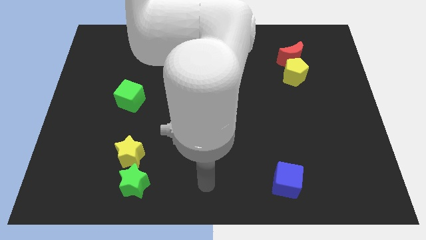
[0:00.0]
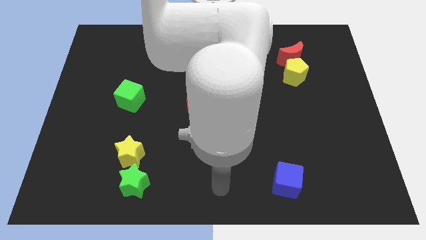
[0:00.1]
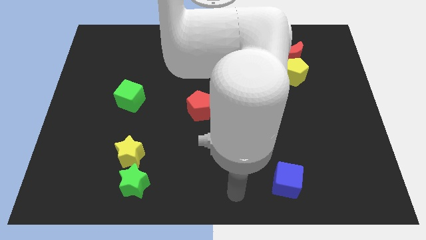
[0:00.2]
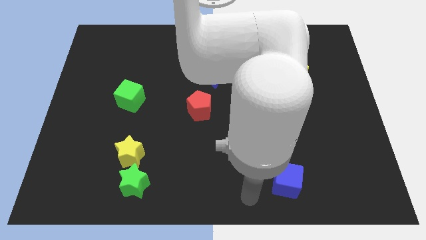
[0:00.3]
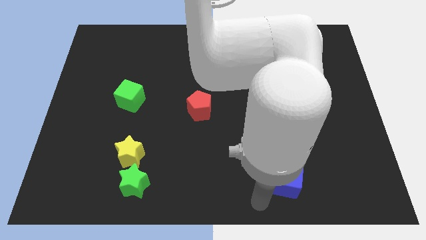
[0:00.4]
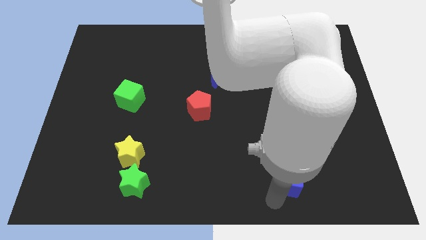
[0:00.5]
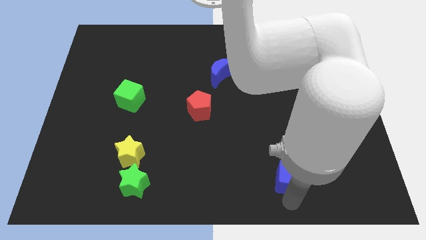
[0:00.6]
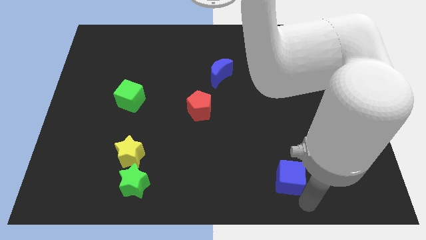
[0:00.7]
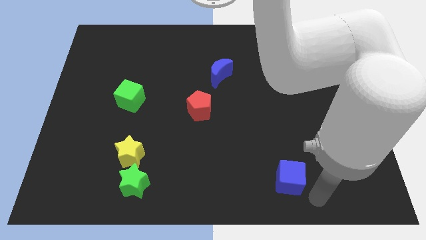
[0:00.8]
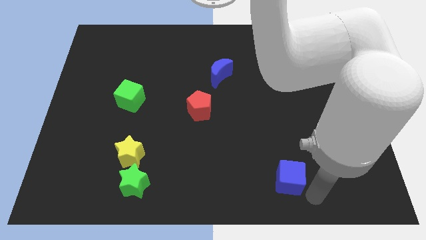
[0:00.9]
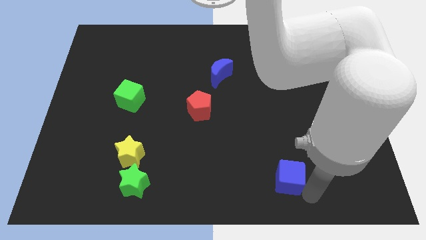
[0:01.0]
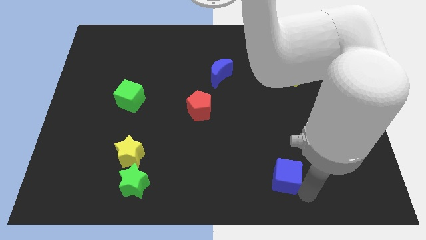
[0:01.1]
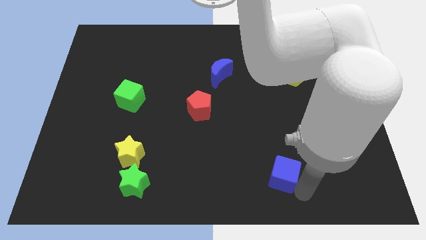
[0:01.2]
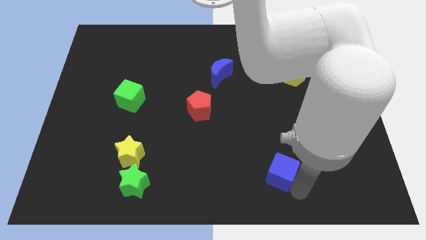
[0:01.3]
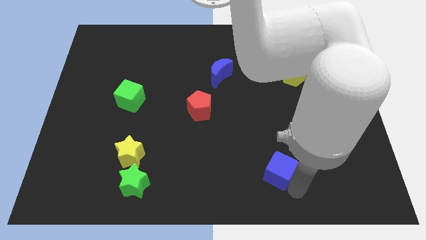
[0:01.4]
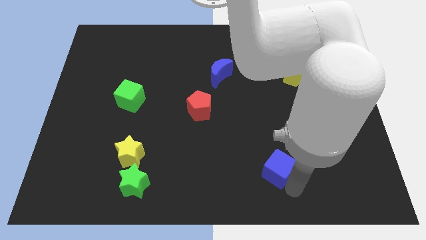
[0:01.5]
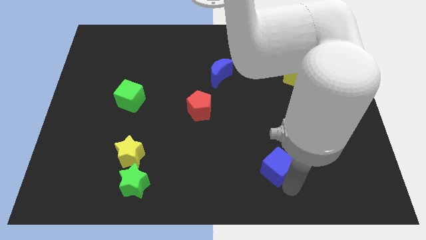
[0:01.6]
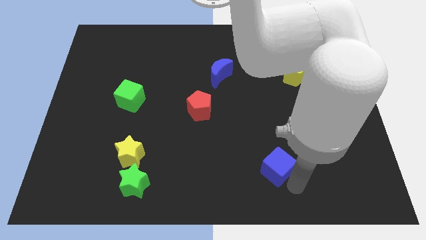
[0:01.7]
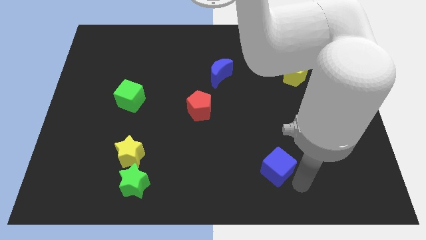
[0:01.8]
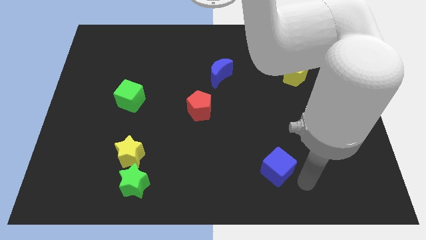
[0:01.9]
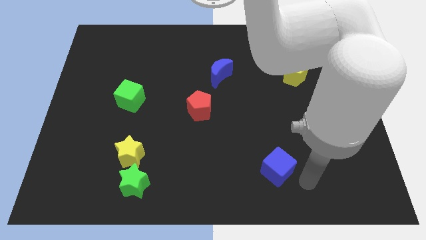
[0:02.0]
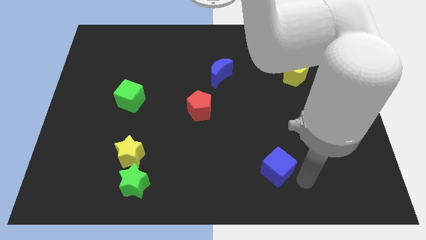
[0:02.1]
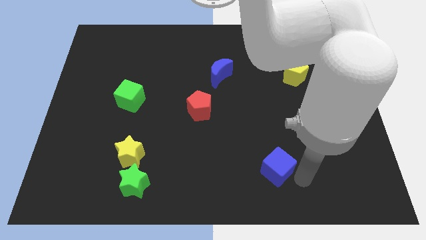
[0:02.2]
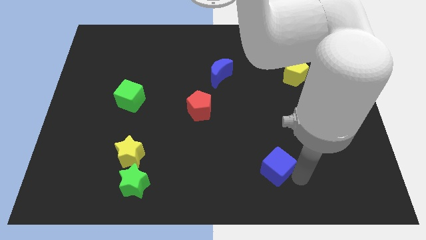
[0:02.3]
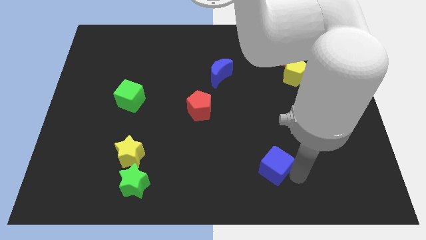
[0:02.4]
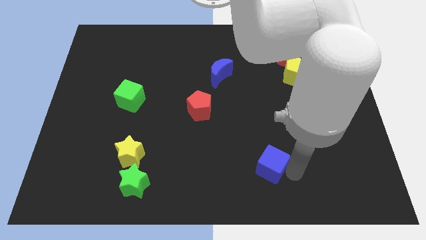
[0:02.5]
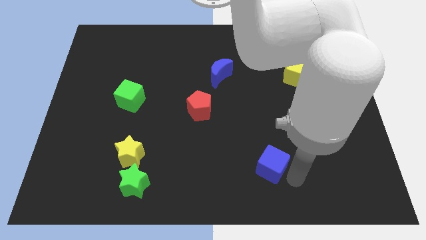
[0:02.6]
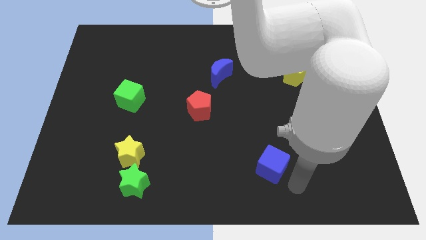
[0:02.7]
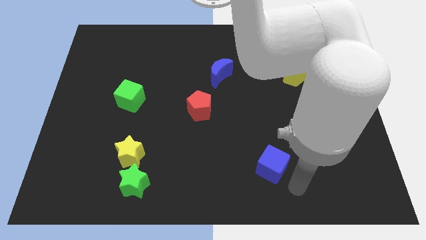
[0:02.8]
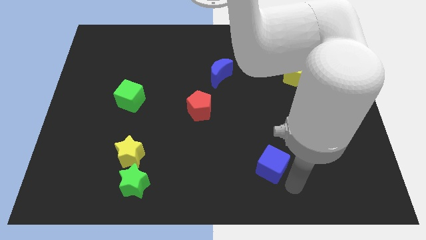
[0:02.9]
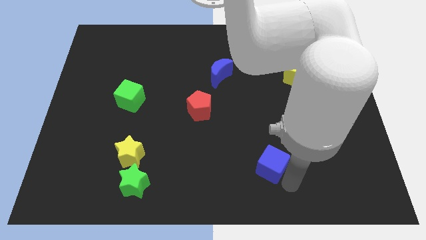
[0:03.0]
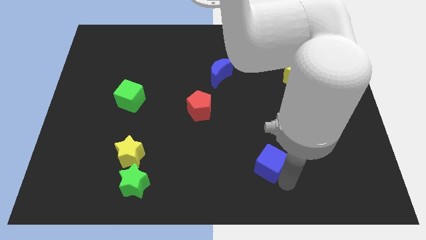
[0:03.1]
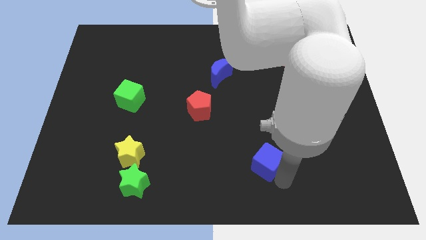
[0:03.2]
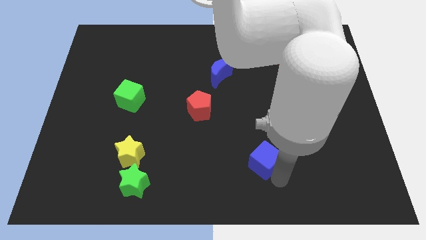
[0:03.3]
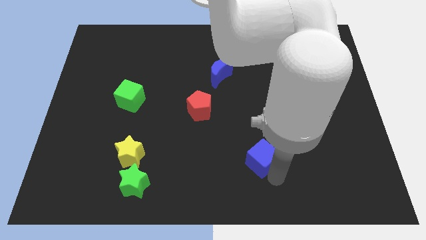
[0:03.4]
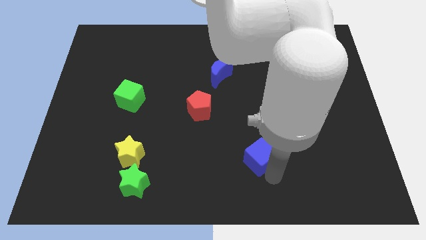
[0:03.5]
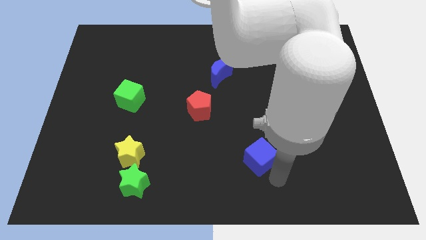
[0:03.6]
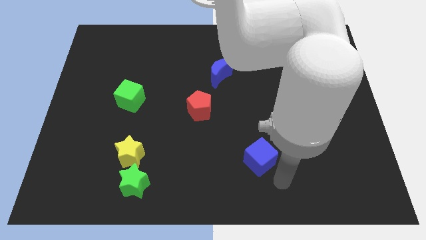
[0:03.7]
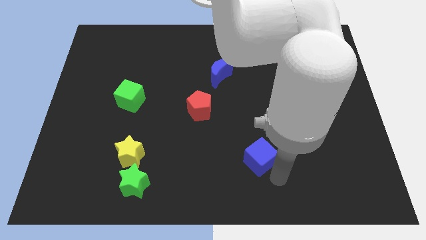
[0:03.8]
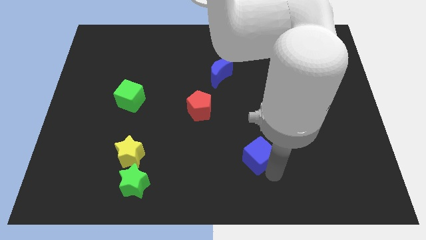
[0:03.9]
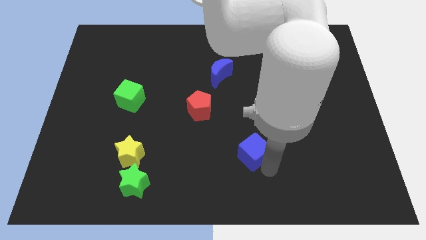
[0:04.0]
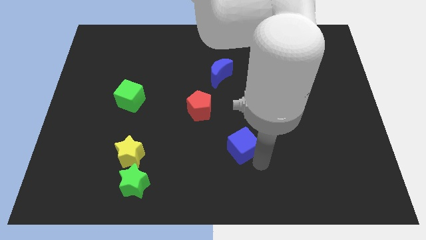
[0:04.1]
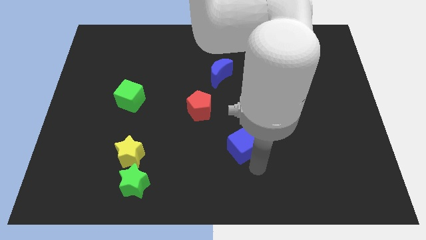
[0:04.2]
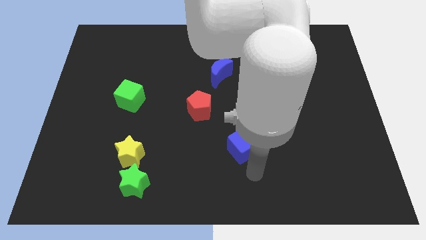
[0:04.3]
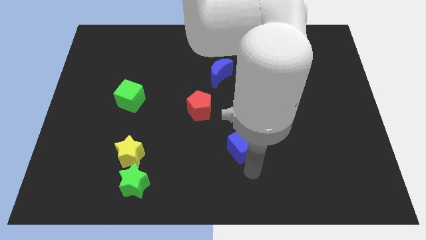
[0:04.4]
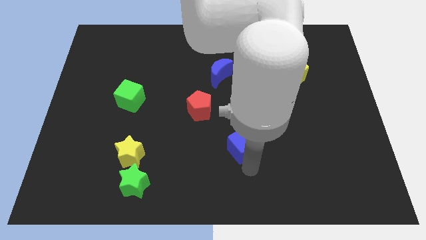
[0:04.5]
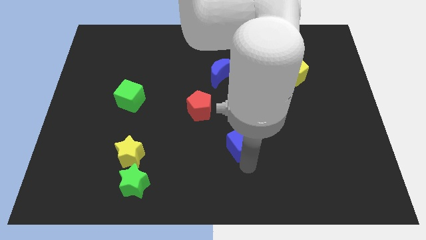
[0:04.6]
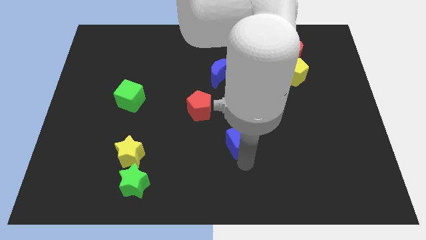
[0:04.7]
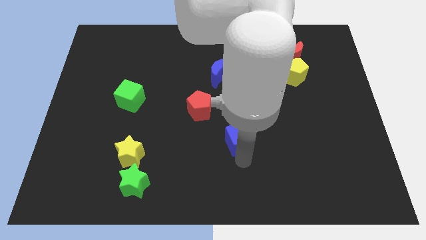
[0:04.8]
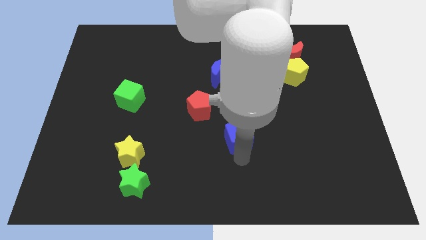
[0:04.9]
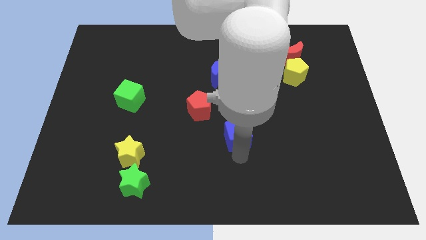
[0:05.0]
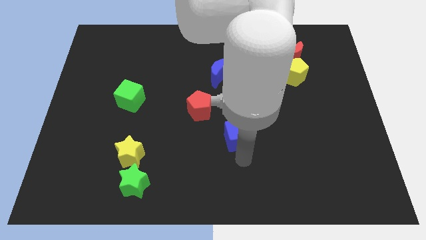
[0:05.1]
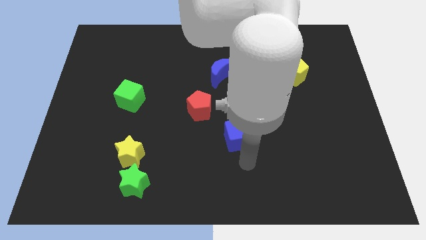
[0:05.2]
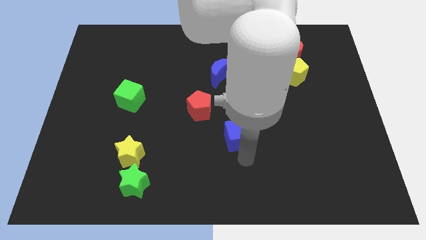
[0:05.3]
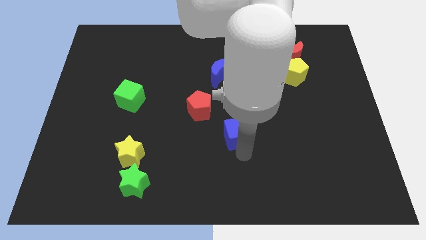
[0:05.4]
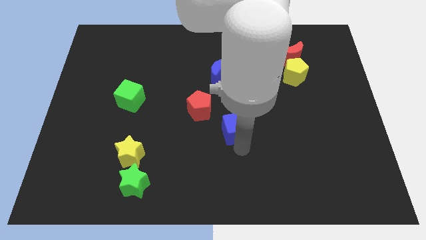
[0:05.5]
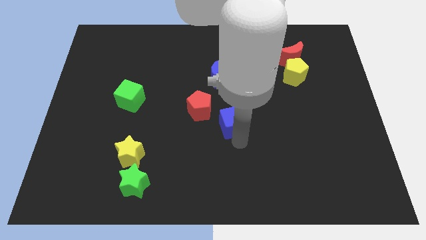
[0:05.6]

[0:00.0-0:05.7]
slide the blue cube to the bottom side of the blue moon

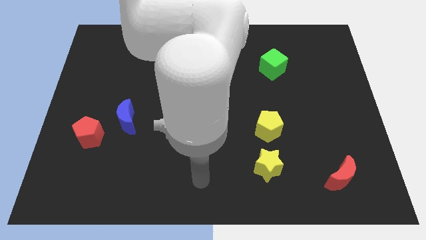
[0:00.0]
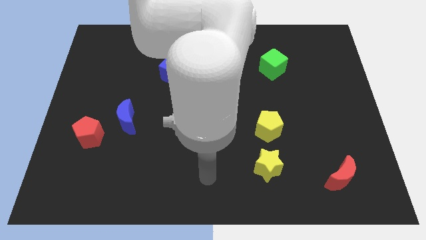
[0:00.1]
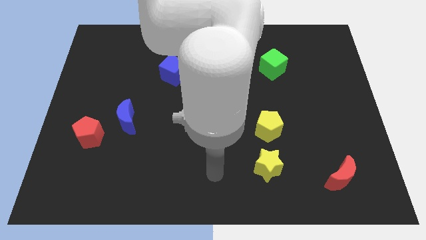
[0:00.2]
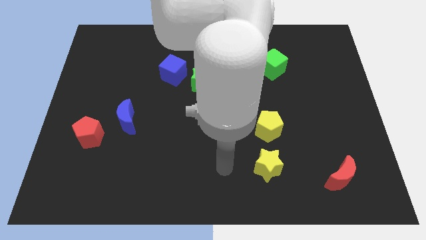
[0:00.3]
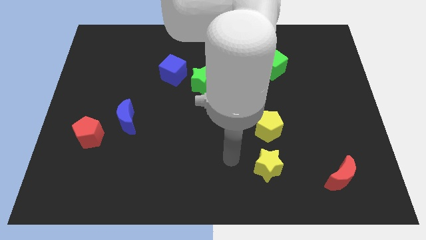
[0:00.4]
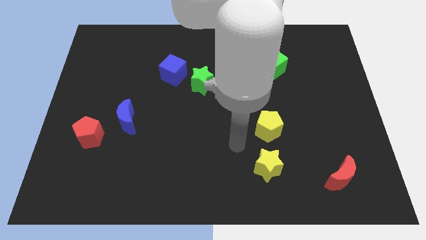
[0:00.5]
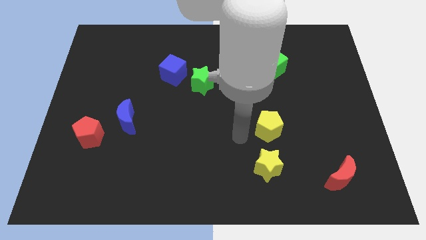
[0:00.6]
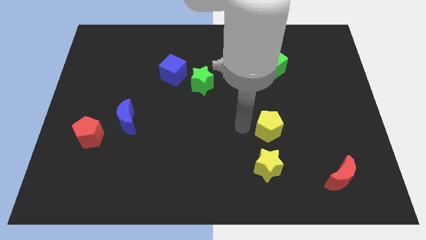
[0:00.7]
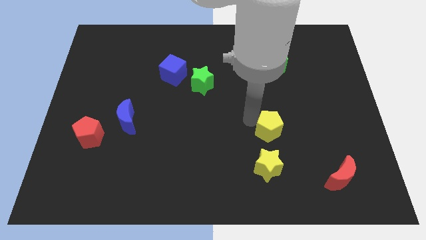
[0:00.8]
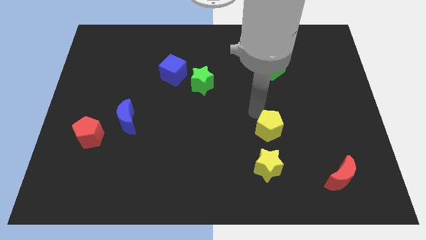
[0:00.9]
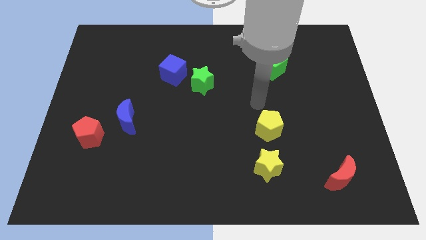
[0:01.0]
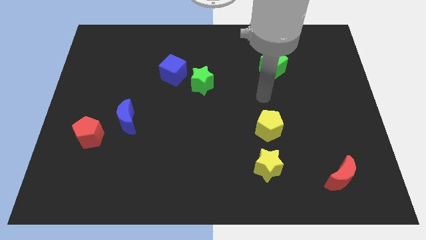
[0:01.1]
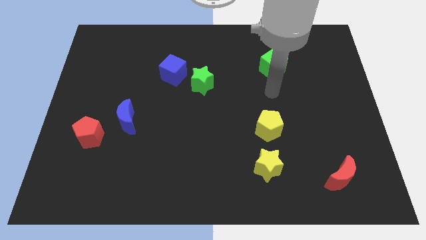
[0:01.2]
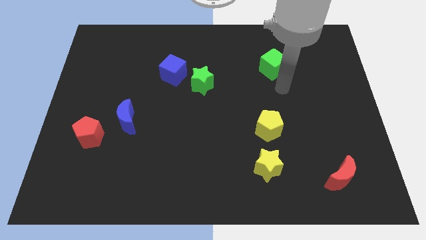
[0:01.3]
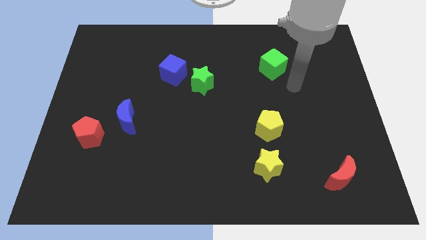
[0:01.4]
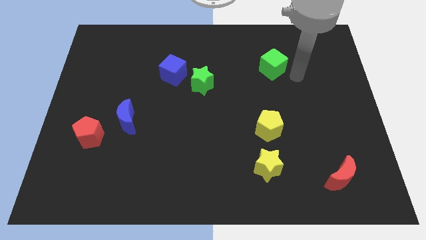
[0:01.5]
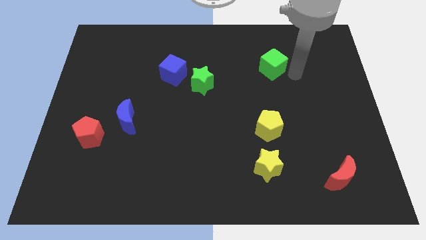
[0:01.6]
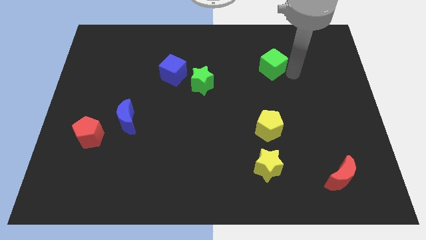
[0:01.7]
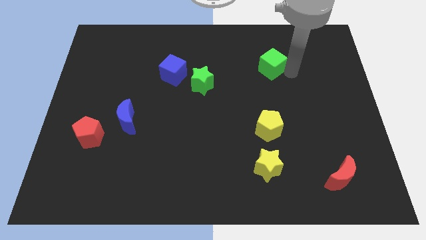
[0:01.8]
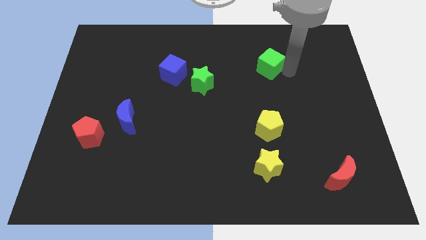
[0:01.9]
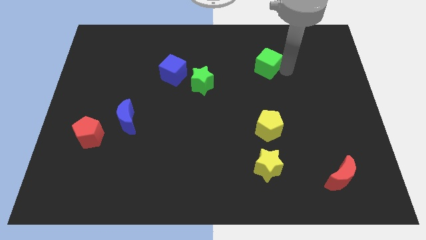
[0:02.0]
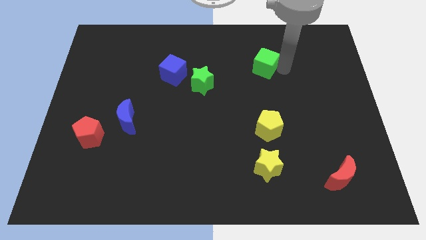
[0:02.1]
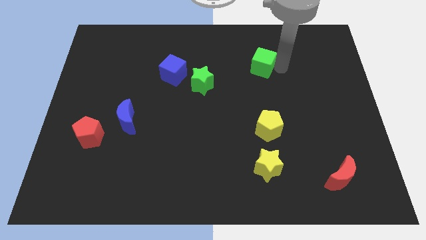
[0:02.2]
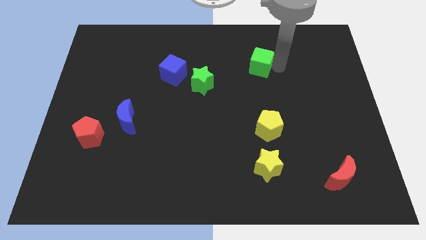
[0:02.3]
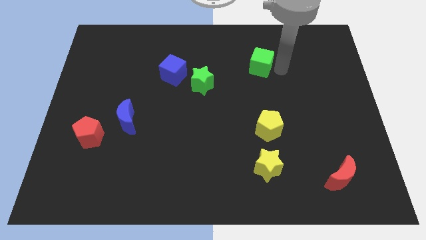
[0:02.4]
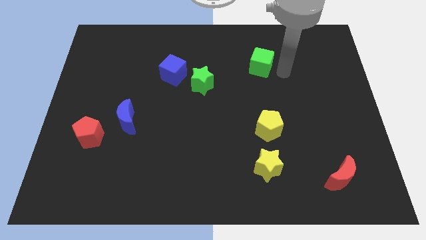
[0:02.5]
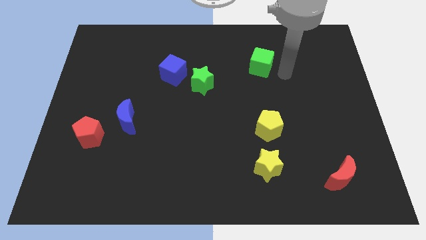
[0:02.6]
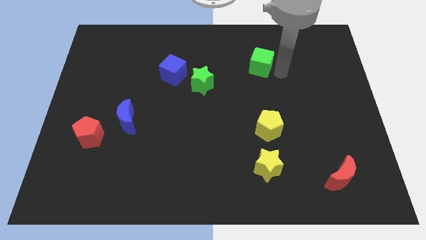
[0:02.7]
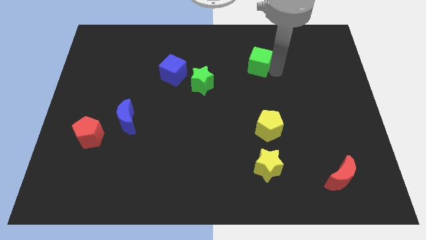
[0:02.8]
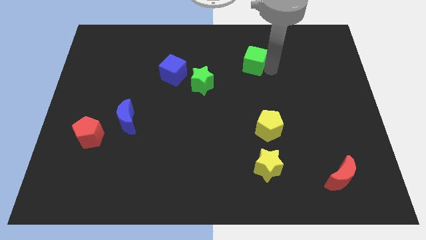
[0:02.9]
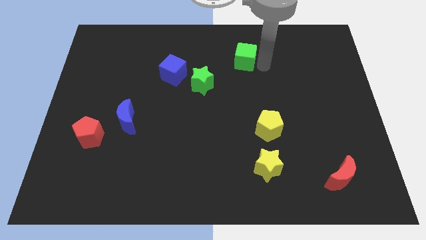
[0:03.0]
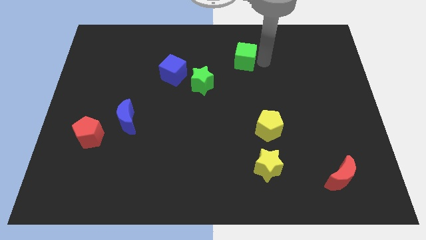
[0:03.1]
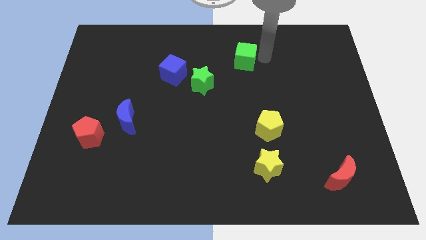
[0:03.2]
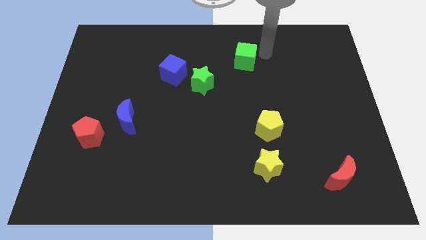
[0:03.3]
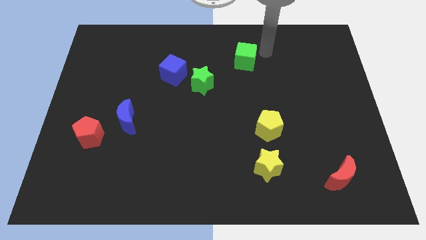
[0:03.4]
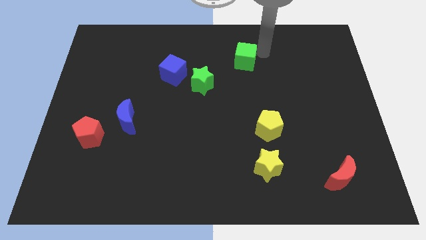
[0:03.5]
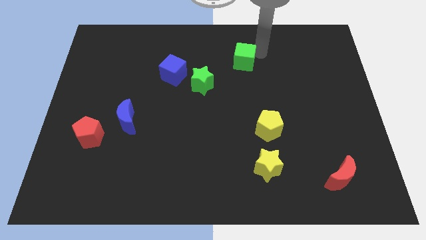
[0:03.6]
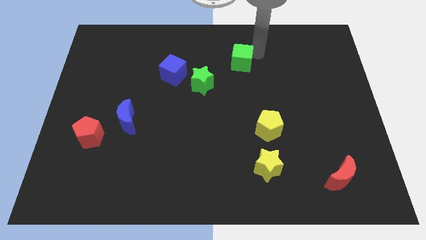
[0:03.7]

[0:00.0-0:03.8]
slide the green cube to the top right side of the green star
